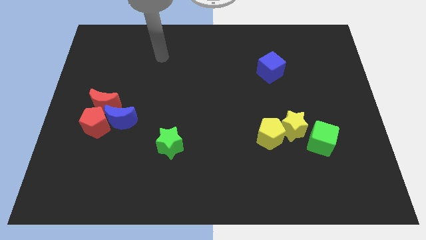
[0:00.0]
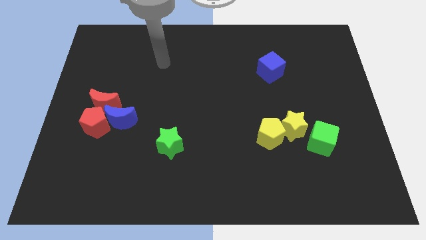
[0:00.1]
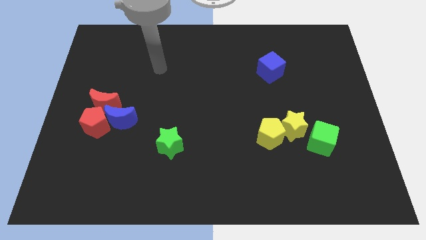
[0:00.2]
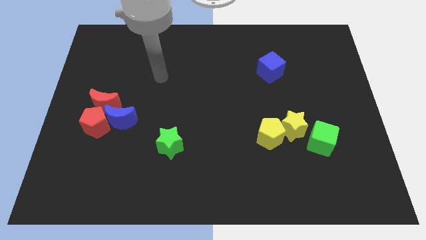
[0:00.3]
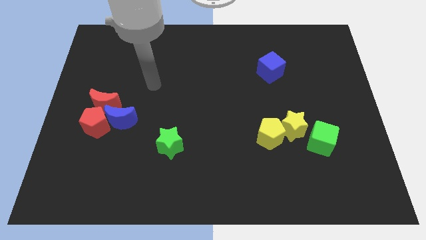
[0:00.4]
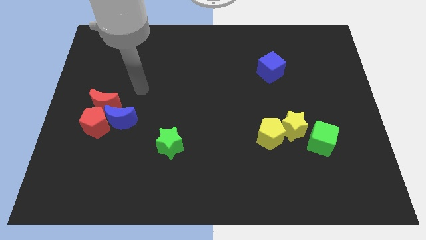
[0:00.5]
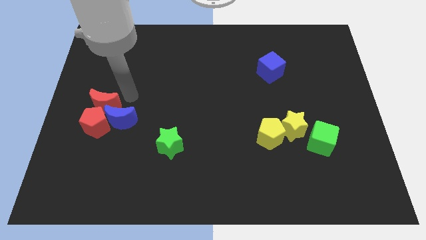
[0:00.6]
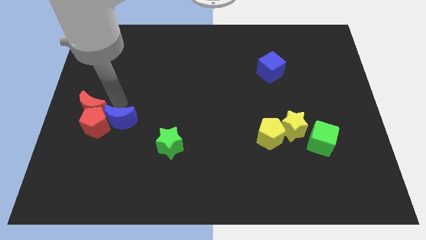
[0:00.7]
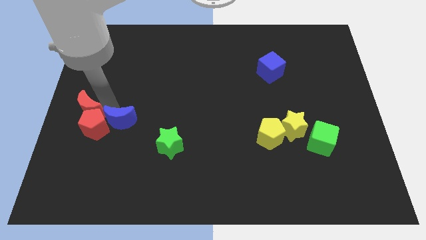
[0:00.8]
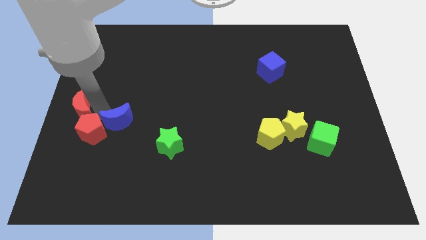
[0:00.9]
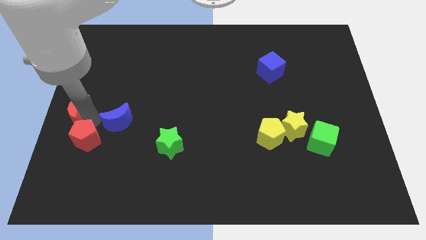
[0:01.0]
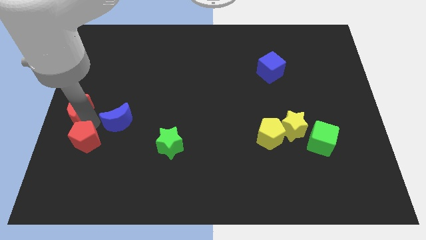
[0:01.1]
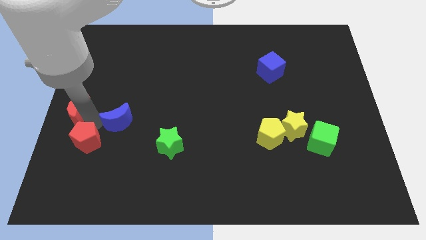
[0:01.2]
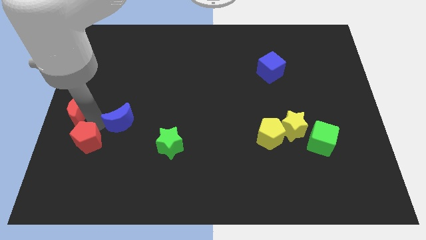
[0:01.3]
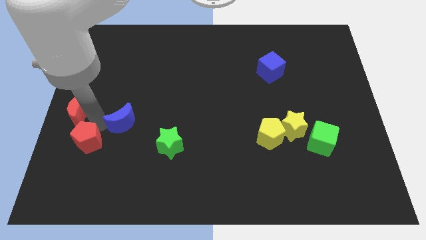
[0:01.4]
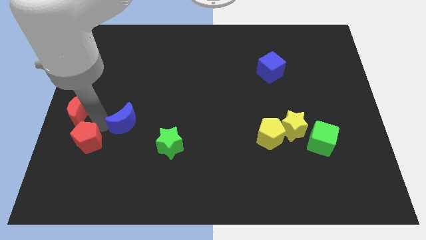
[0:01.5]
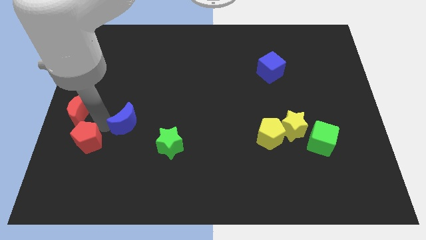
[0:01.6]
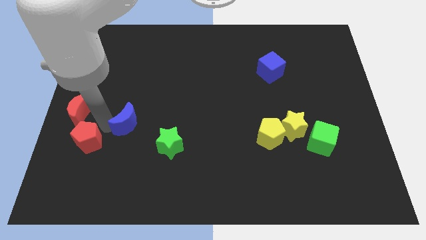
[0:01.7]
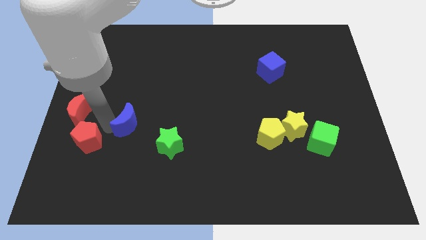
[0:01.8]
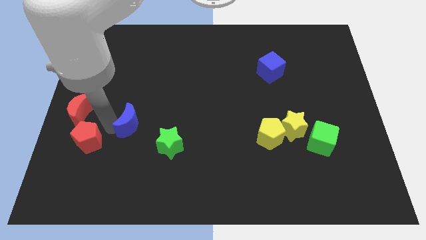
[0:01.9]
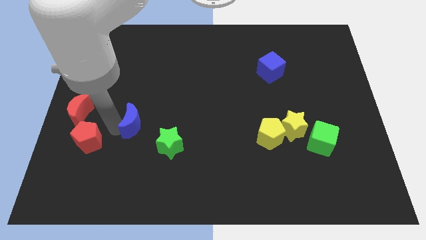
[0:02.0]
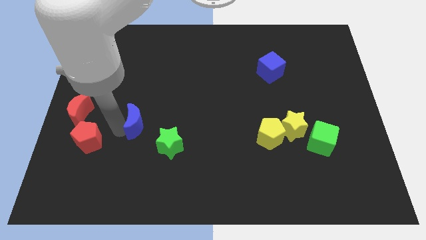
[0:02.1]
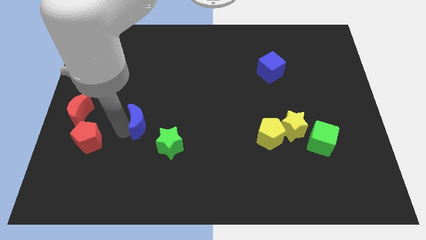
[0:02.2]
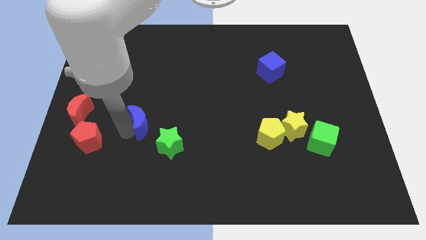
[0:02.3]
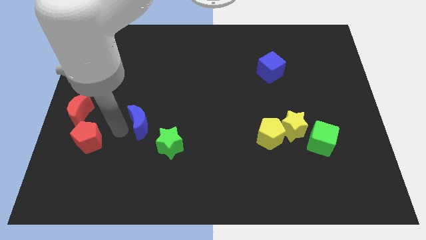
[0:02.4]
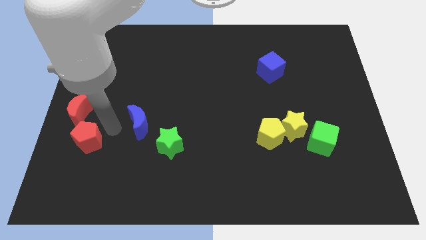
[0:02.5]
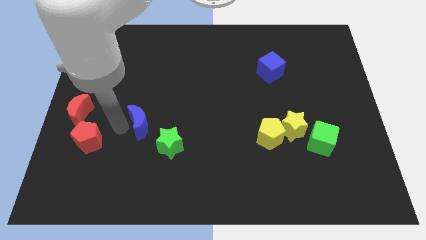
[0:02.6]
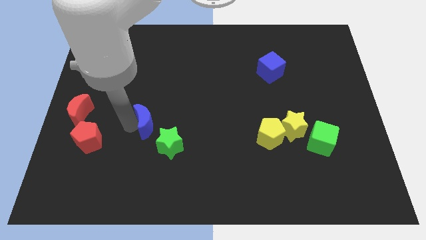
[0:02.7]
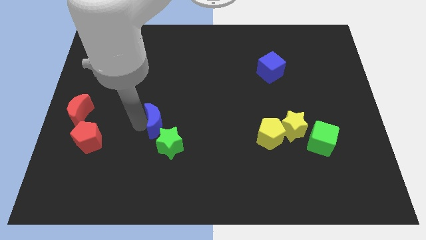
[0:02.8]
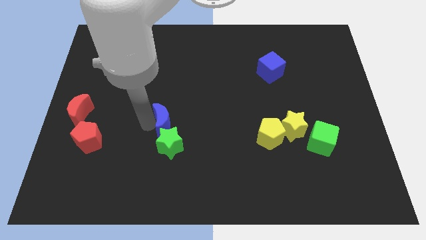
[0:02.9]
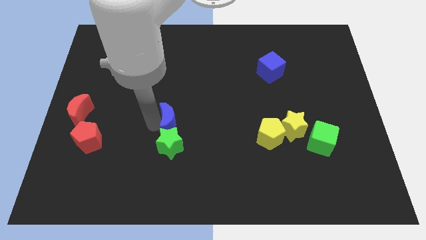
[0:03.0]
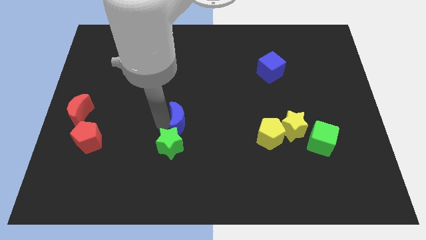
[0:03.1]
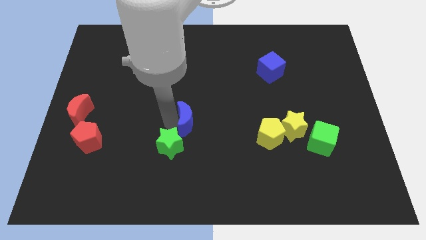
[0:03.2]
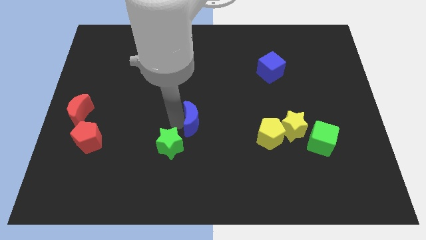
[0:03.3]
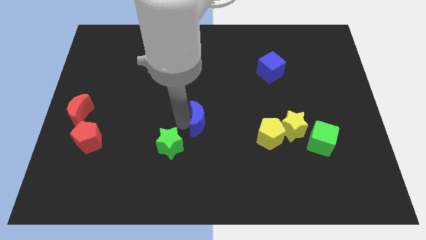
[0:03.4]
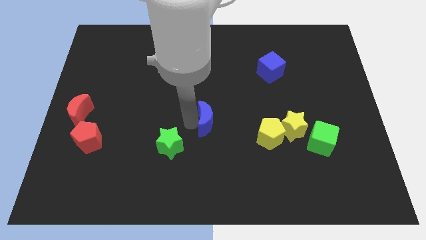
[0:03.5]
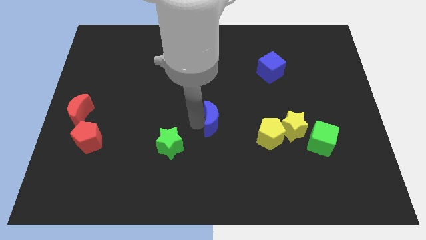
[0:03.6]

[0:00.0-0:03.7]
slide the blue moon right

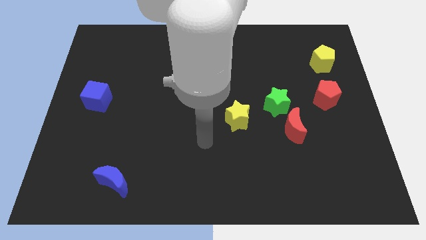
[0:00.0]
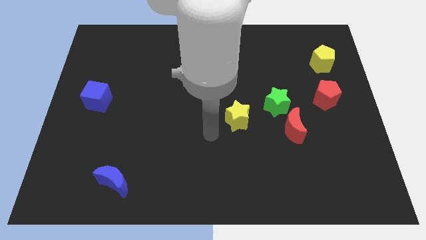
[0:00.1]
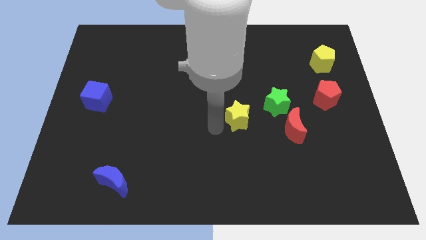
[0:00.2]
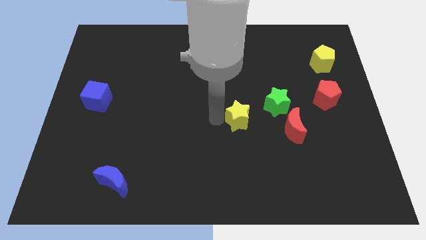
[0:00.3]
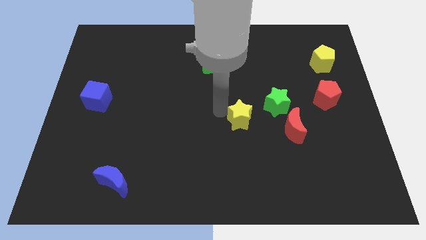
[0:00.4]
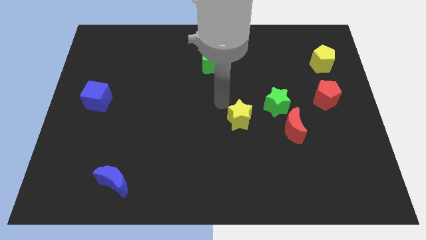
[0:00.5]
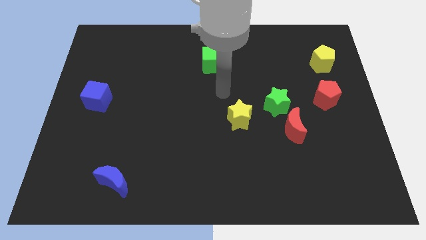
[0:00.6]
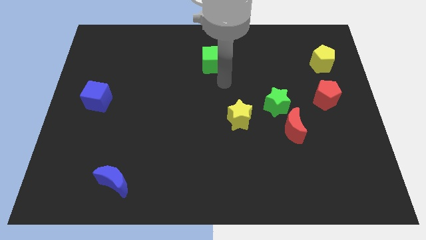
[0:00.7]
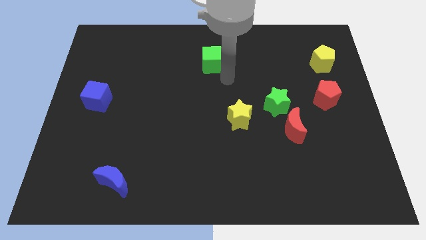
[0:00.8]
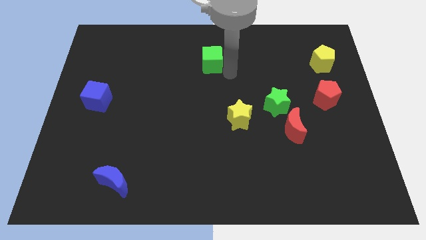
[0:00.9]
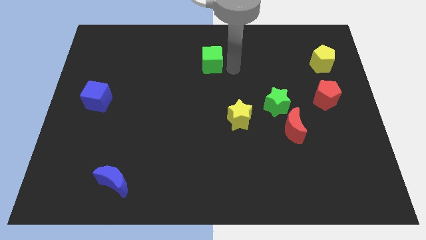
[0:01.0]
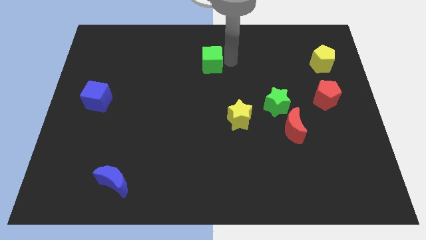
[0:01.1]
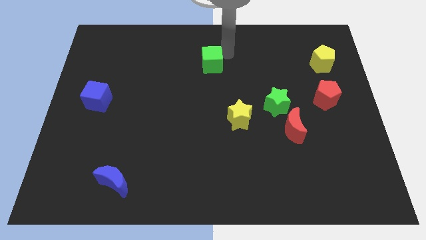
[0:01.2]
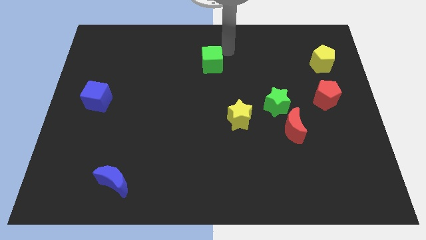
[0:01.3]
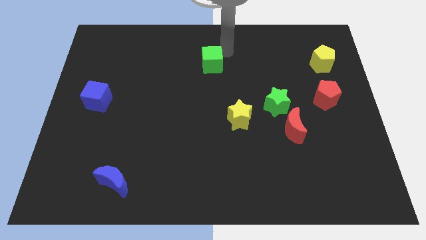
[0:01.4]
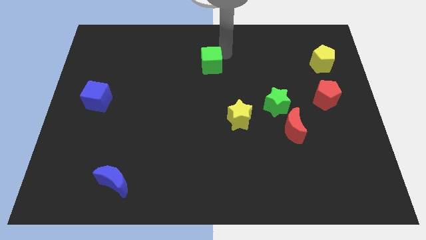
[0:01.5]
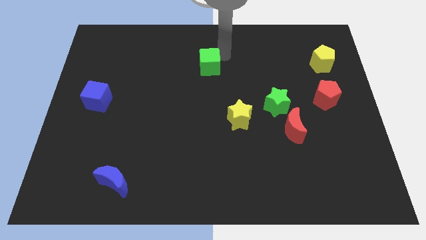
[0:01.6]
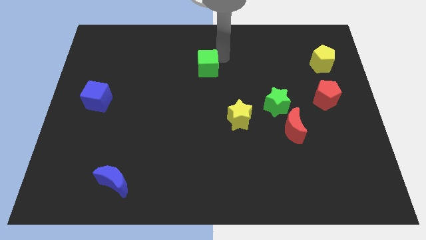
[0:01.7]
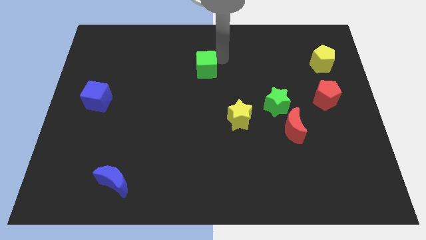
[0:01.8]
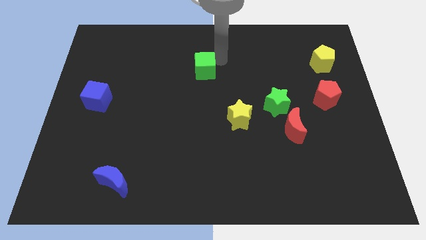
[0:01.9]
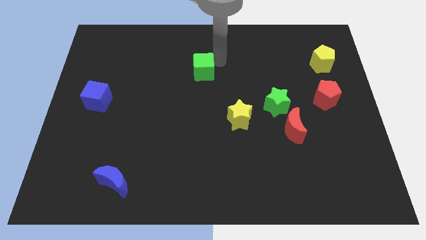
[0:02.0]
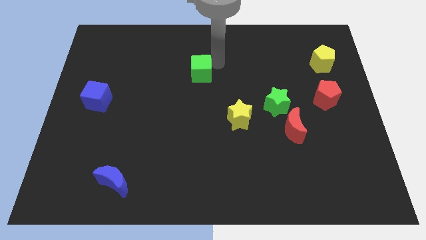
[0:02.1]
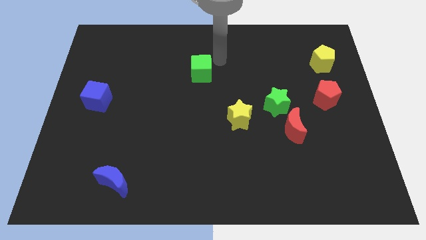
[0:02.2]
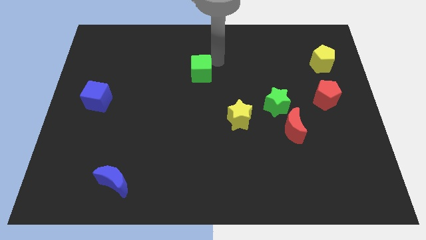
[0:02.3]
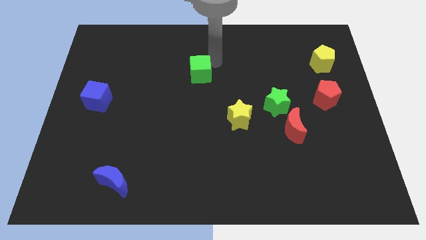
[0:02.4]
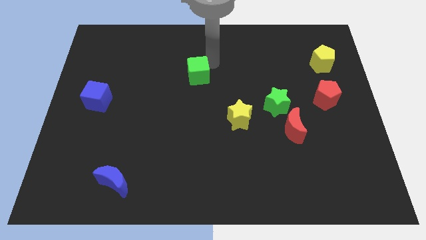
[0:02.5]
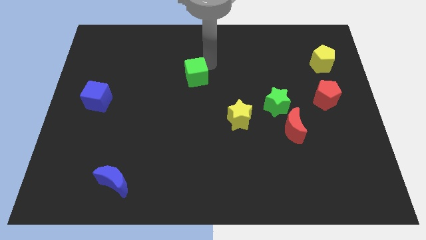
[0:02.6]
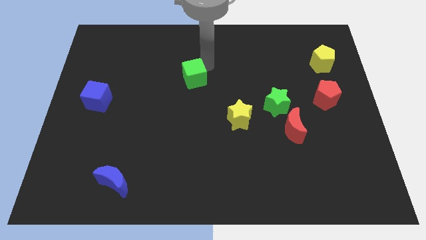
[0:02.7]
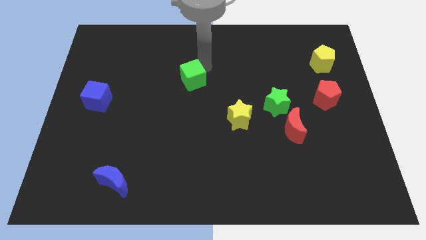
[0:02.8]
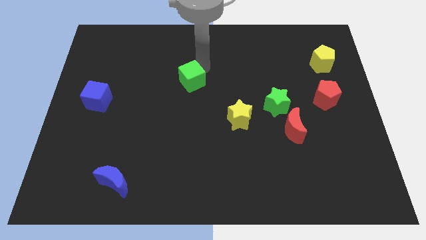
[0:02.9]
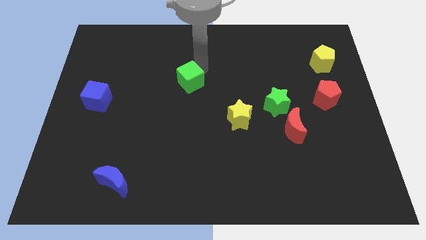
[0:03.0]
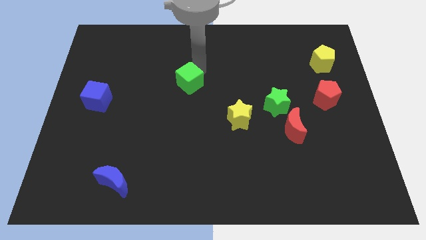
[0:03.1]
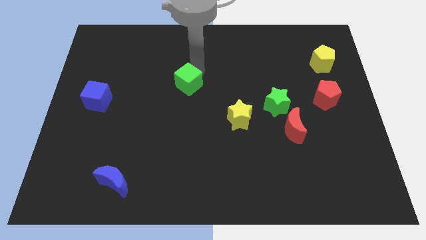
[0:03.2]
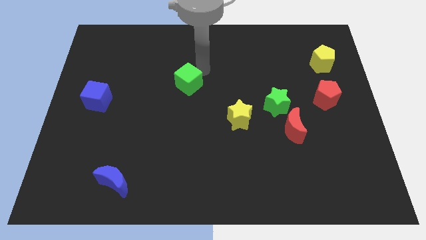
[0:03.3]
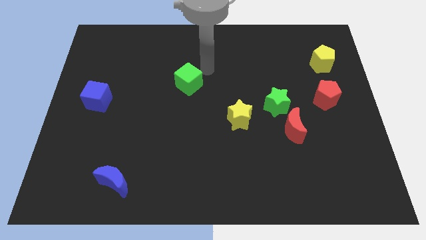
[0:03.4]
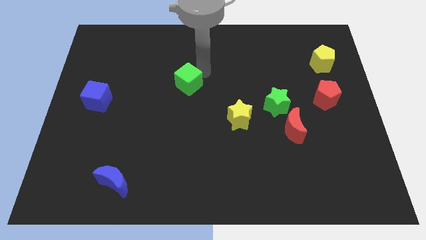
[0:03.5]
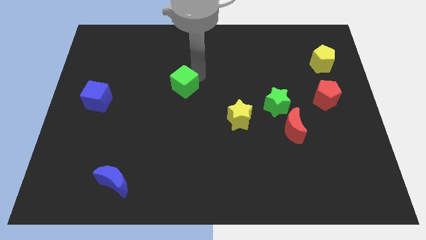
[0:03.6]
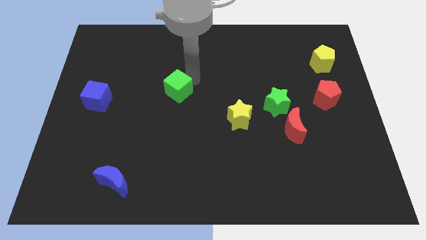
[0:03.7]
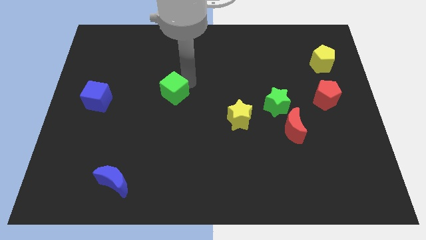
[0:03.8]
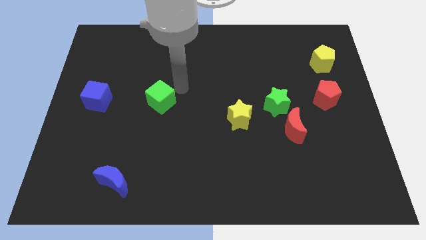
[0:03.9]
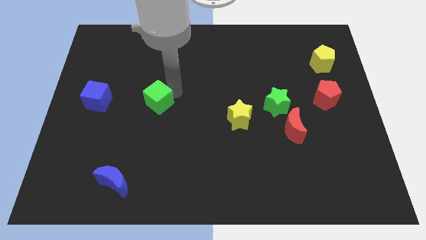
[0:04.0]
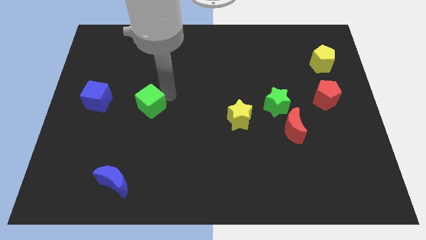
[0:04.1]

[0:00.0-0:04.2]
move the green cube down and then to the left
